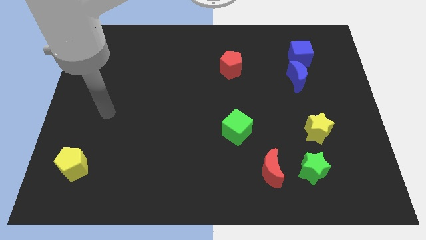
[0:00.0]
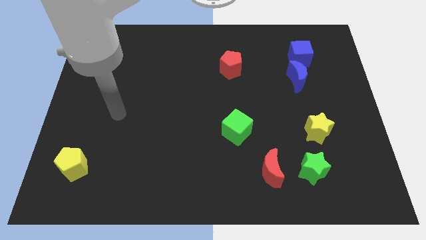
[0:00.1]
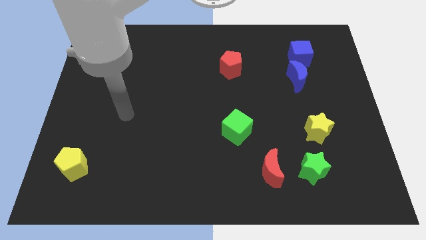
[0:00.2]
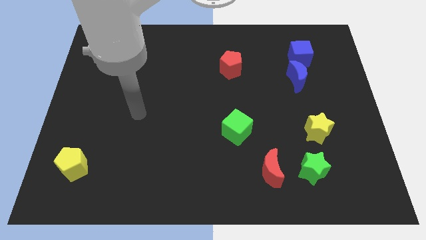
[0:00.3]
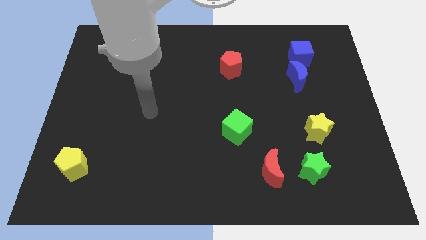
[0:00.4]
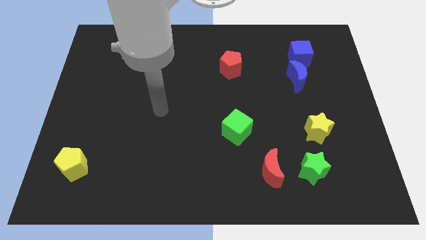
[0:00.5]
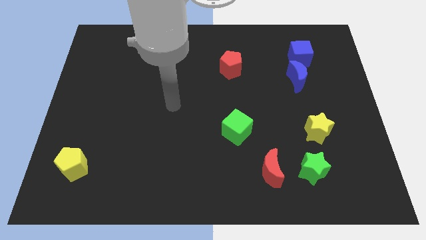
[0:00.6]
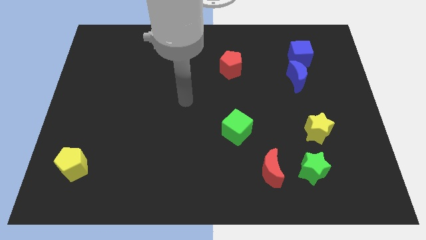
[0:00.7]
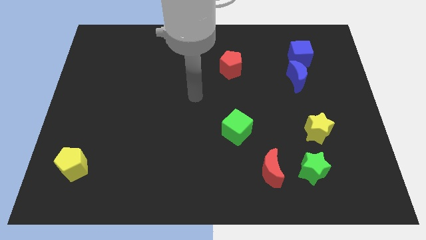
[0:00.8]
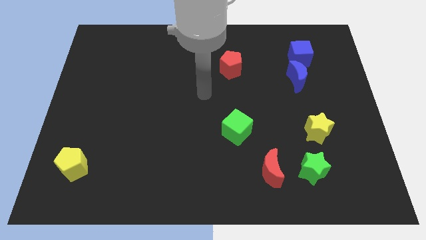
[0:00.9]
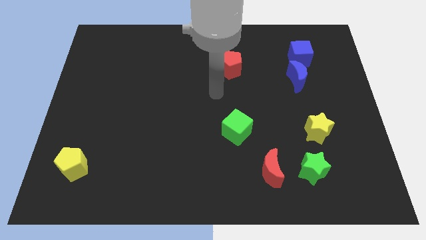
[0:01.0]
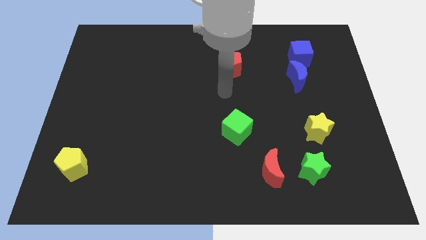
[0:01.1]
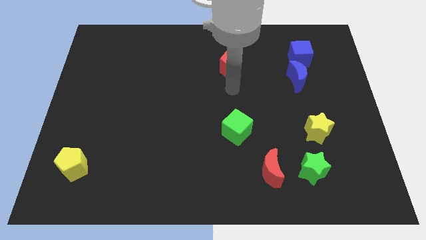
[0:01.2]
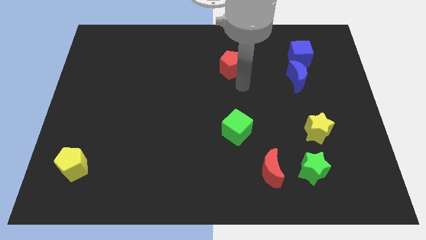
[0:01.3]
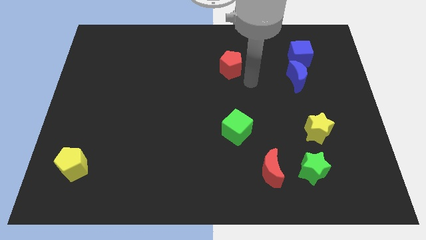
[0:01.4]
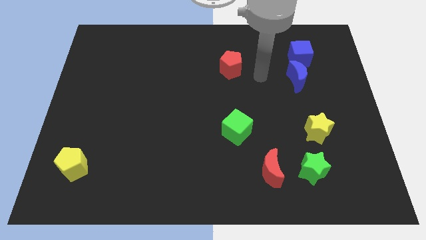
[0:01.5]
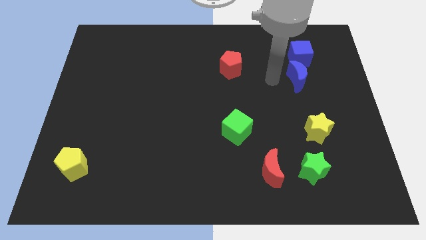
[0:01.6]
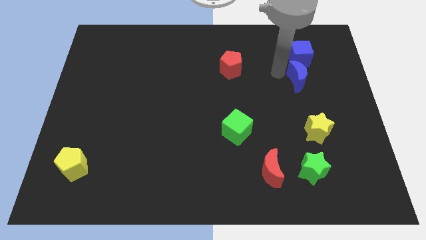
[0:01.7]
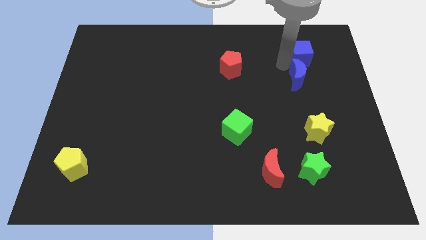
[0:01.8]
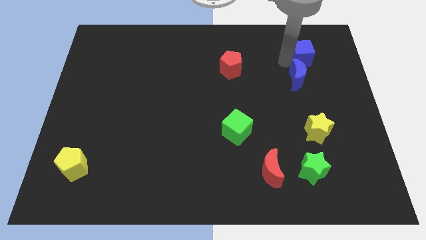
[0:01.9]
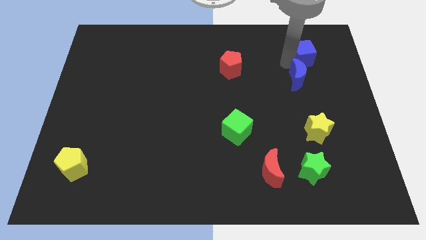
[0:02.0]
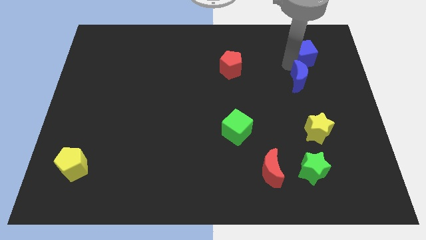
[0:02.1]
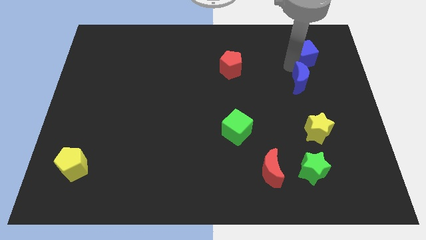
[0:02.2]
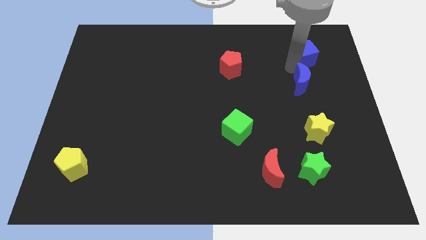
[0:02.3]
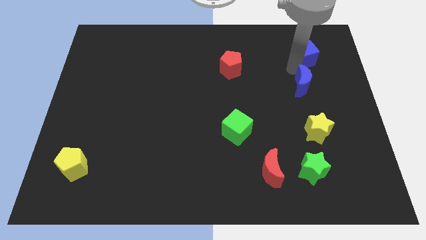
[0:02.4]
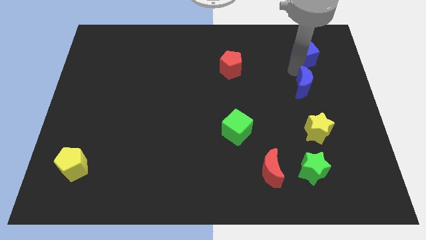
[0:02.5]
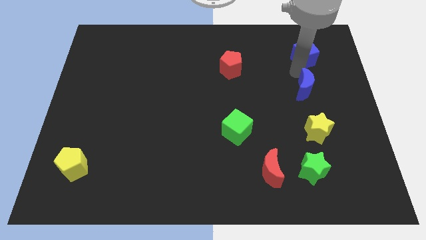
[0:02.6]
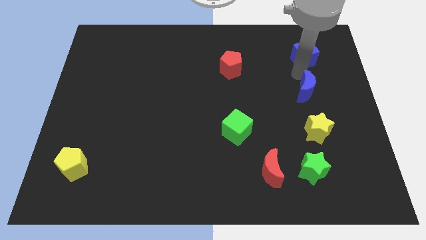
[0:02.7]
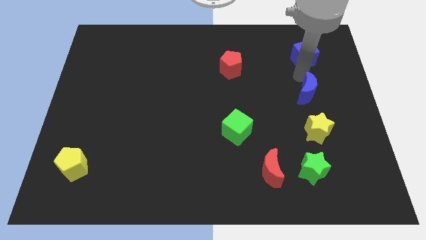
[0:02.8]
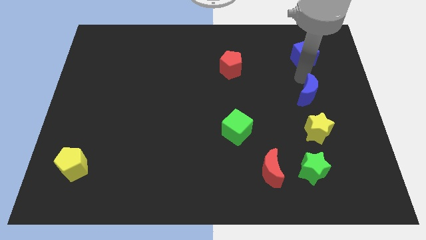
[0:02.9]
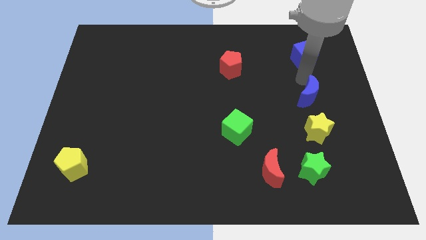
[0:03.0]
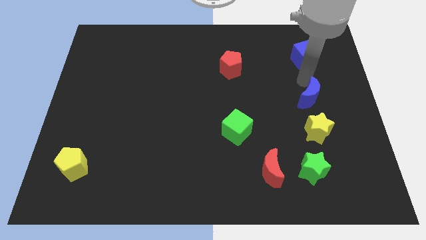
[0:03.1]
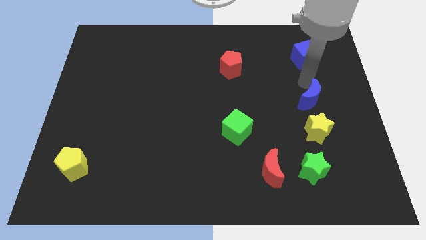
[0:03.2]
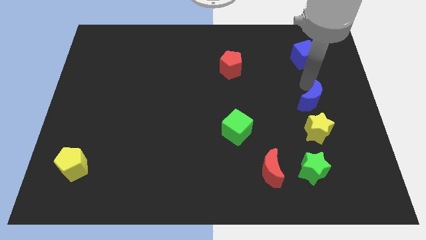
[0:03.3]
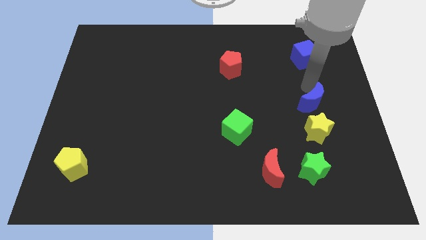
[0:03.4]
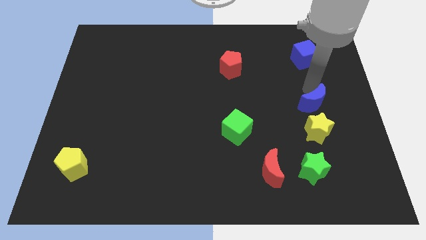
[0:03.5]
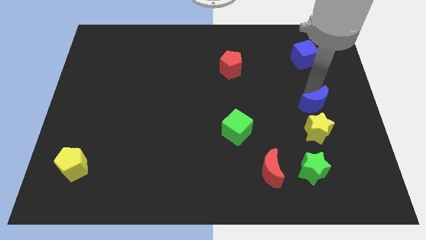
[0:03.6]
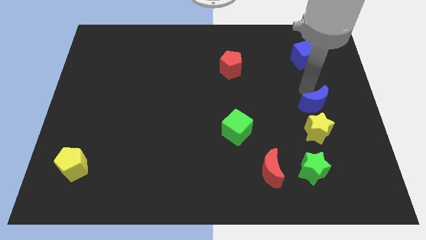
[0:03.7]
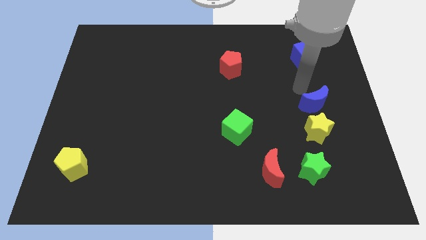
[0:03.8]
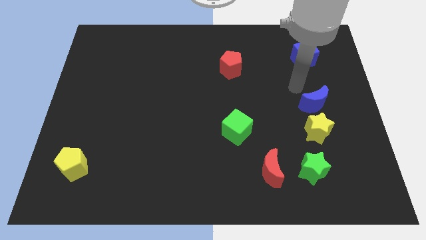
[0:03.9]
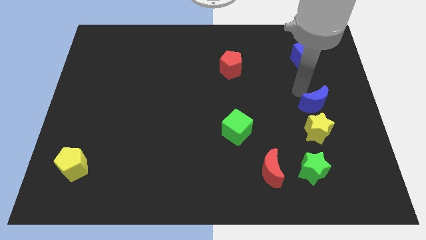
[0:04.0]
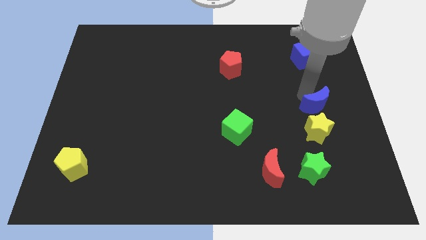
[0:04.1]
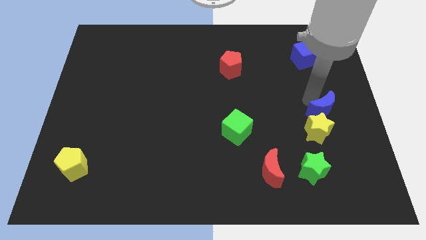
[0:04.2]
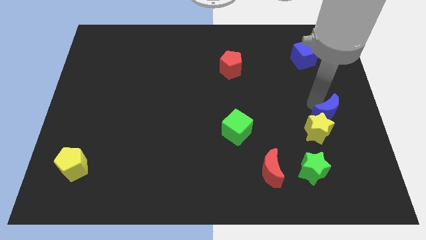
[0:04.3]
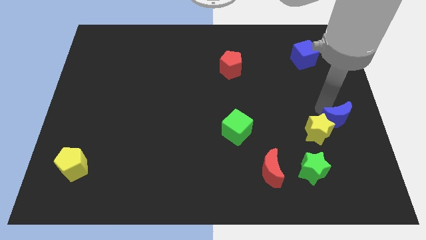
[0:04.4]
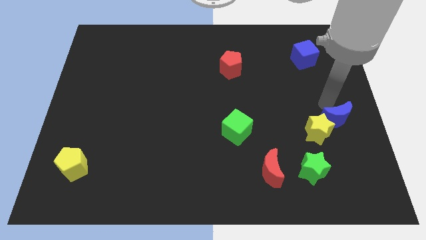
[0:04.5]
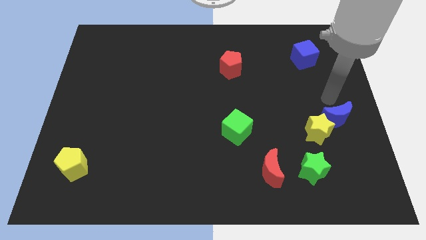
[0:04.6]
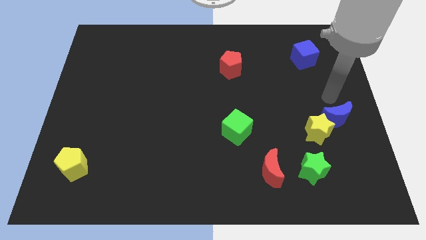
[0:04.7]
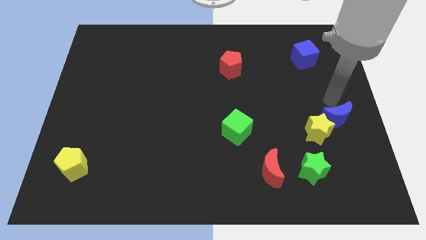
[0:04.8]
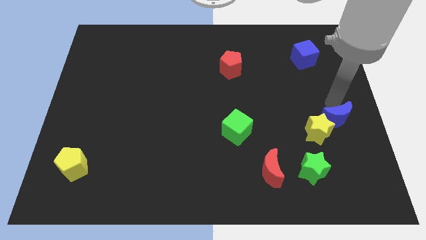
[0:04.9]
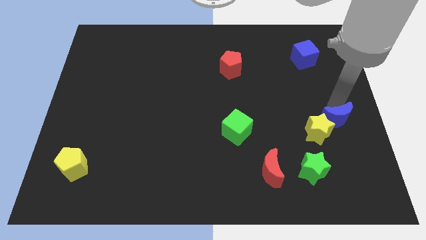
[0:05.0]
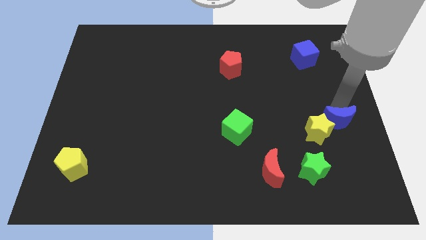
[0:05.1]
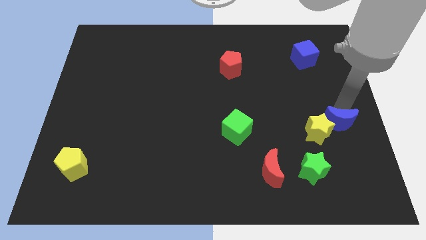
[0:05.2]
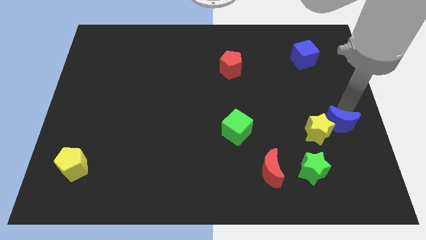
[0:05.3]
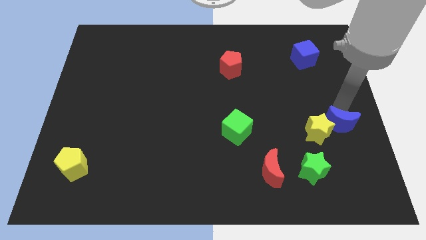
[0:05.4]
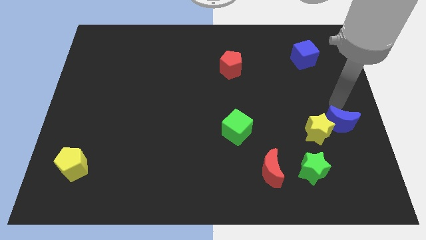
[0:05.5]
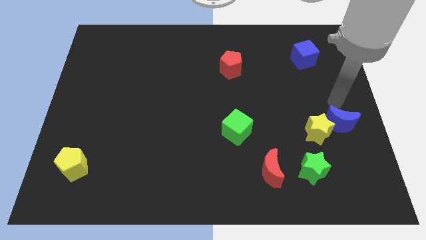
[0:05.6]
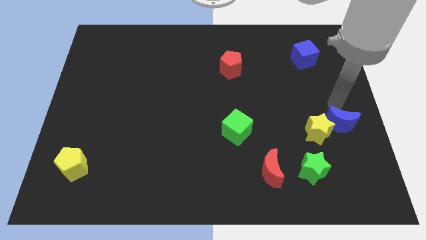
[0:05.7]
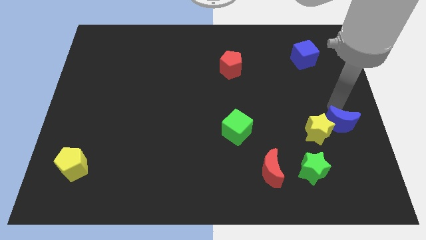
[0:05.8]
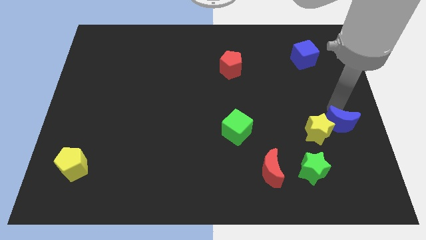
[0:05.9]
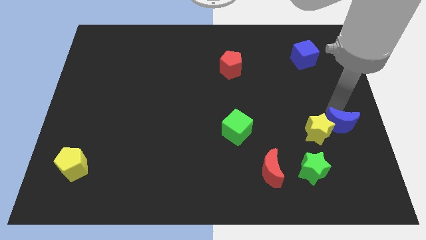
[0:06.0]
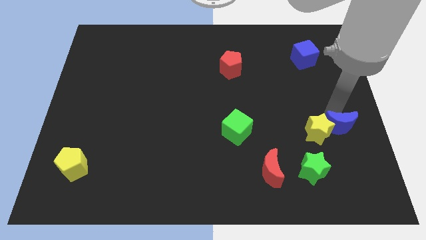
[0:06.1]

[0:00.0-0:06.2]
push the blue moon diagonally down and to the right of the yellow star
